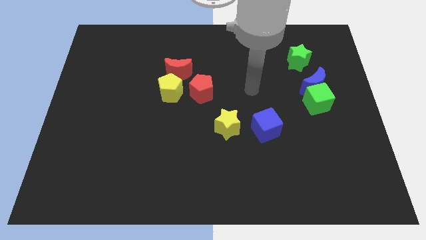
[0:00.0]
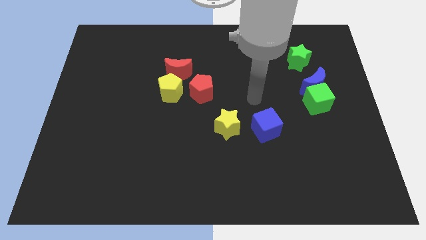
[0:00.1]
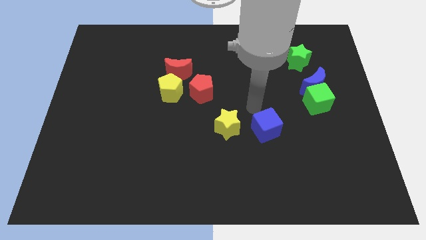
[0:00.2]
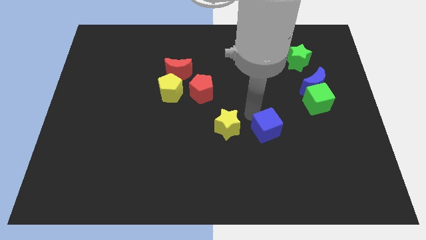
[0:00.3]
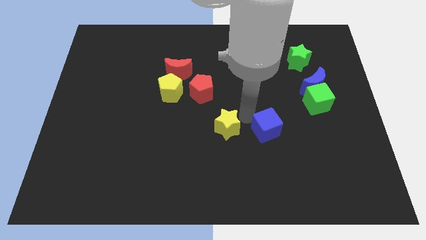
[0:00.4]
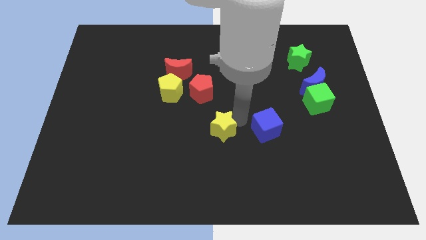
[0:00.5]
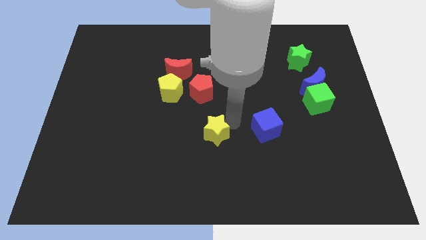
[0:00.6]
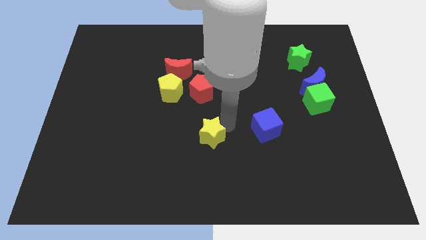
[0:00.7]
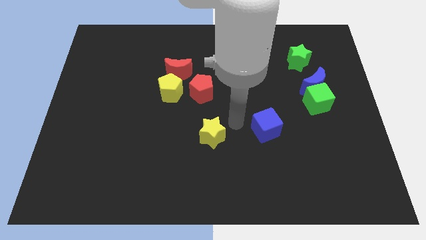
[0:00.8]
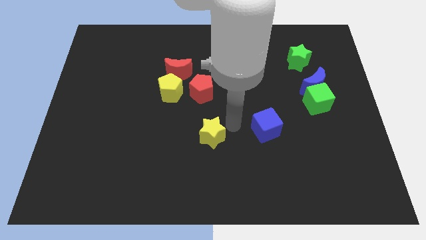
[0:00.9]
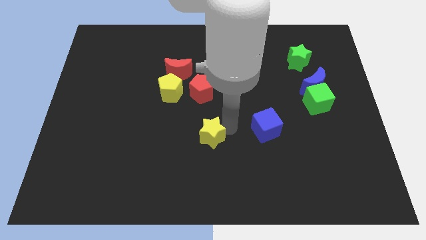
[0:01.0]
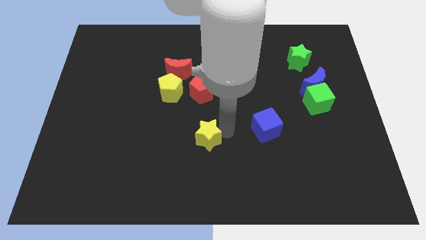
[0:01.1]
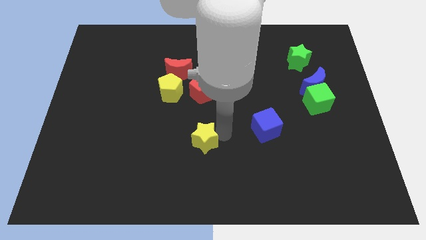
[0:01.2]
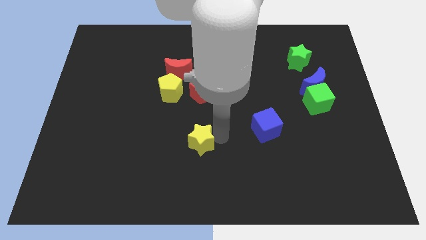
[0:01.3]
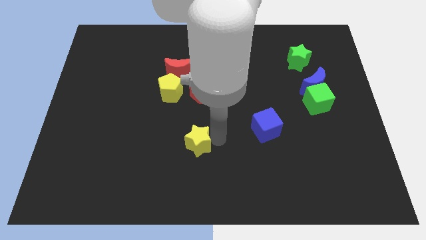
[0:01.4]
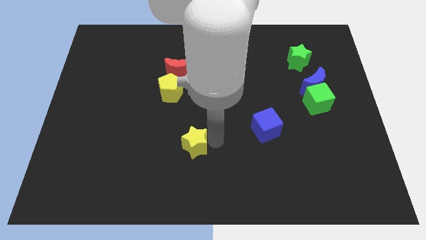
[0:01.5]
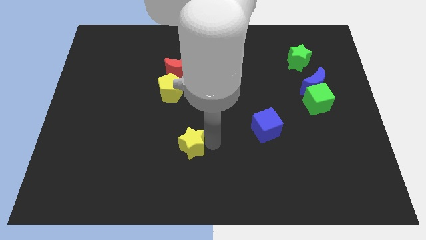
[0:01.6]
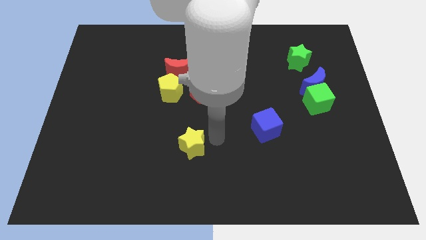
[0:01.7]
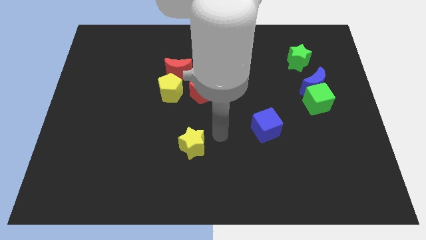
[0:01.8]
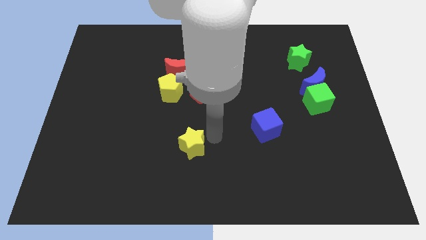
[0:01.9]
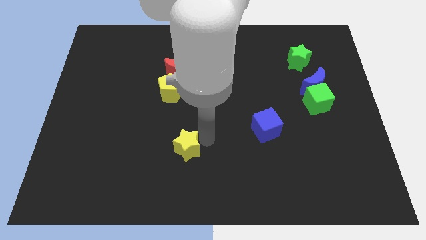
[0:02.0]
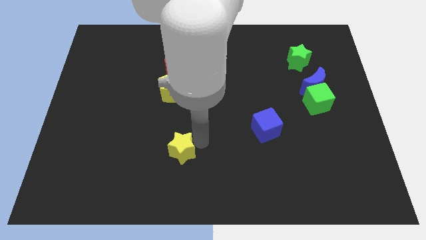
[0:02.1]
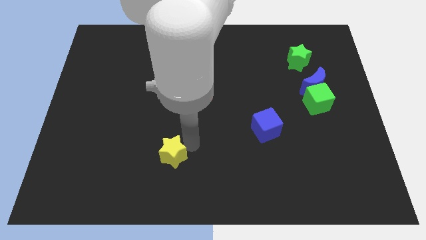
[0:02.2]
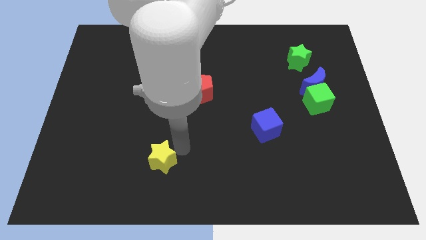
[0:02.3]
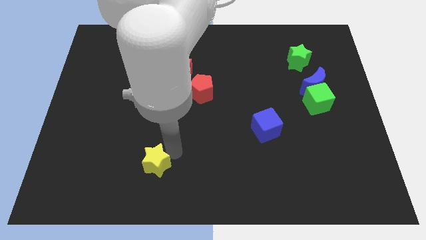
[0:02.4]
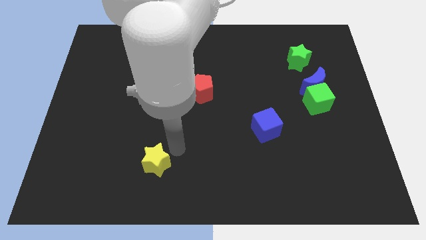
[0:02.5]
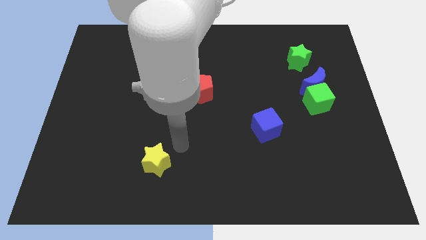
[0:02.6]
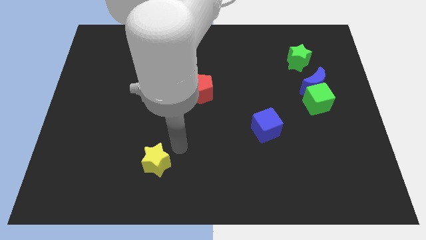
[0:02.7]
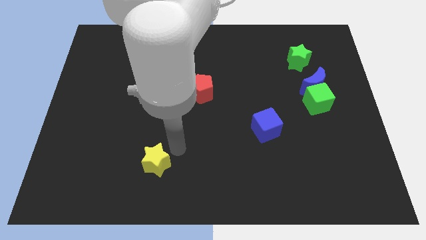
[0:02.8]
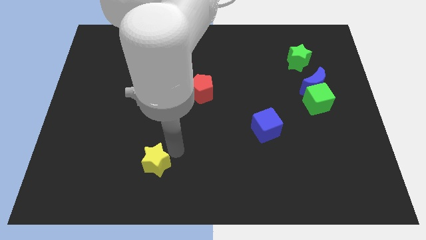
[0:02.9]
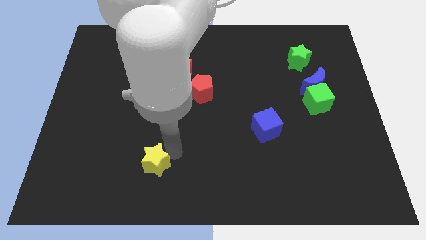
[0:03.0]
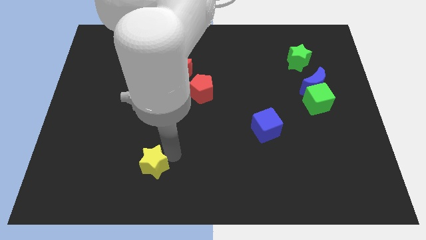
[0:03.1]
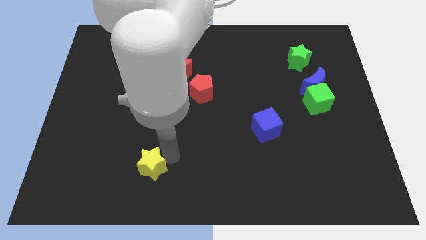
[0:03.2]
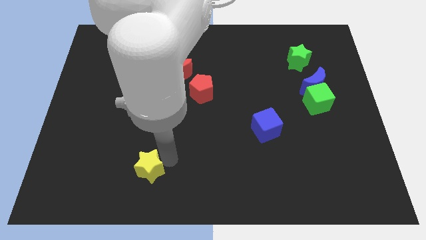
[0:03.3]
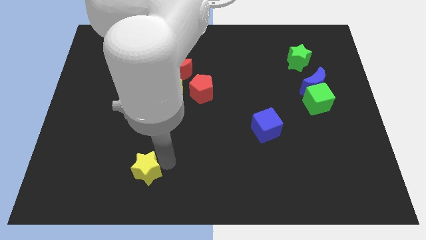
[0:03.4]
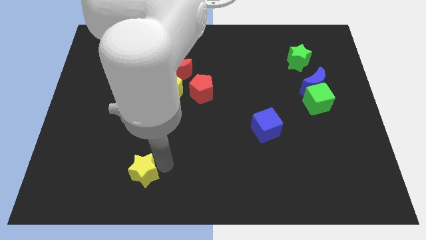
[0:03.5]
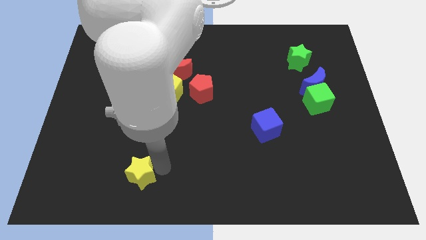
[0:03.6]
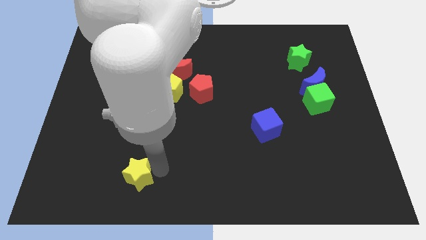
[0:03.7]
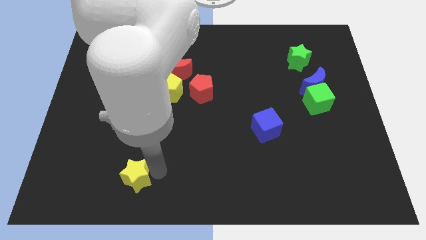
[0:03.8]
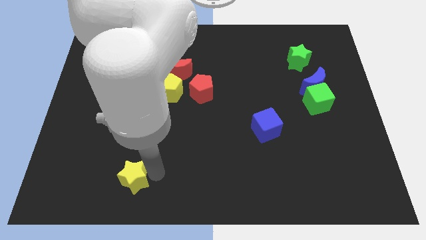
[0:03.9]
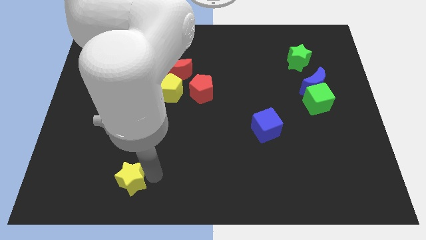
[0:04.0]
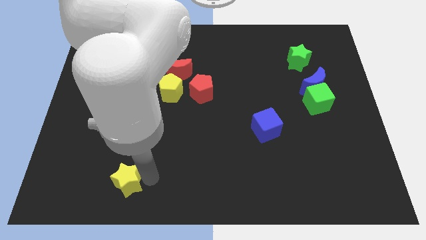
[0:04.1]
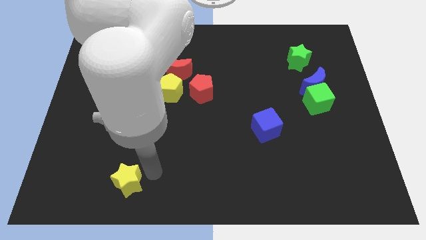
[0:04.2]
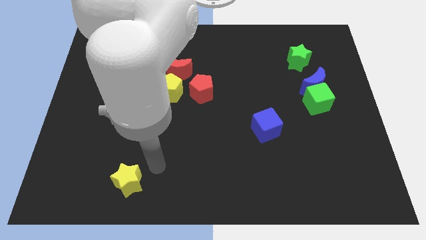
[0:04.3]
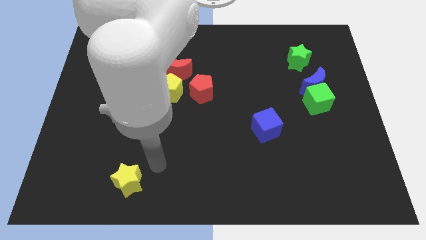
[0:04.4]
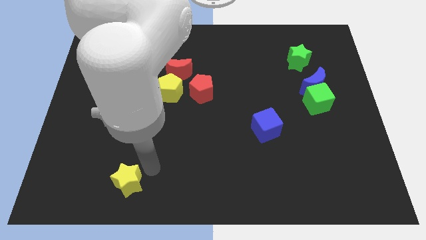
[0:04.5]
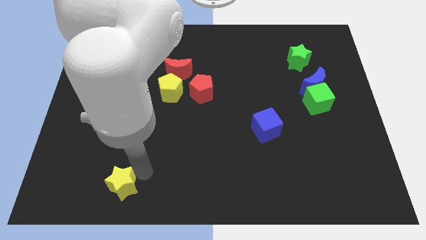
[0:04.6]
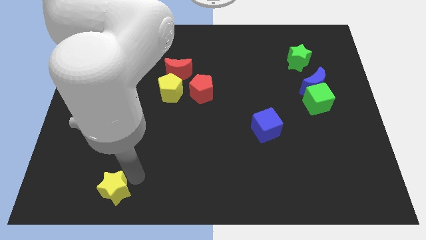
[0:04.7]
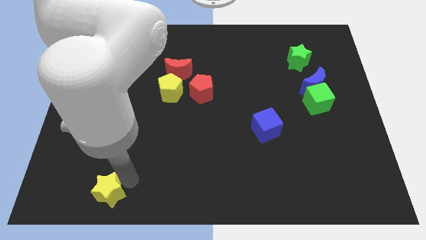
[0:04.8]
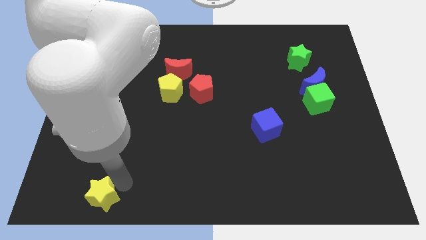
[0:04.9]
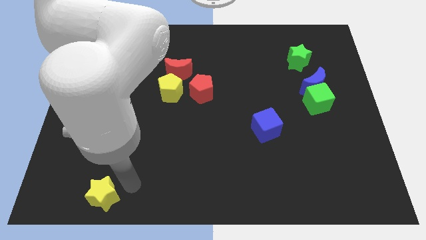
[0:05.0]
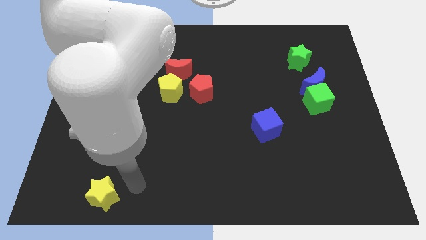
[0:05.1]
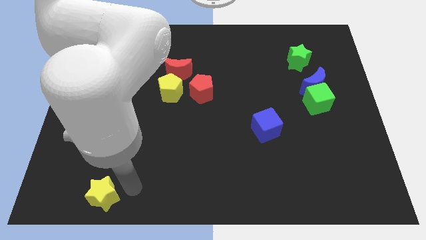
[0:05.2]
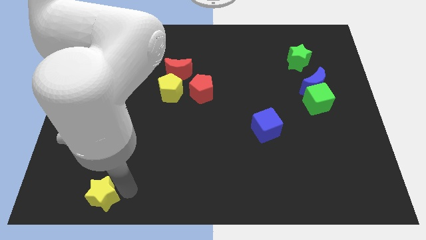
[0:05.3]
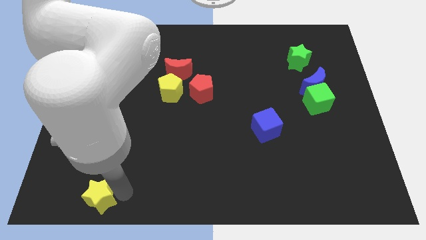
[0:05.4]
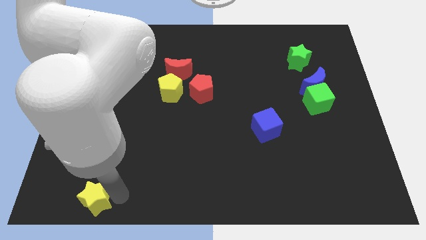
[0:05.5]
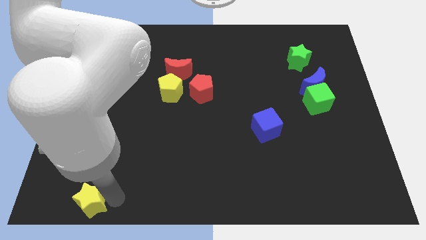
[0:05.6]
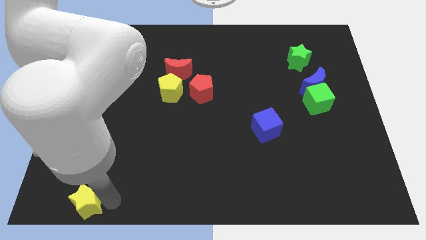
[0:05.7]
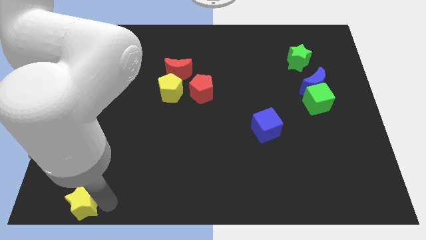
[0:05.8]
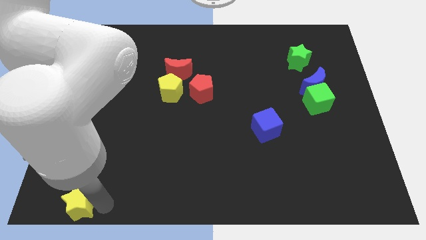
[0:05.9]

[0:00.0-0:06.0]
push the yellow star to the bottom left

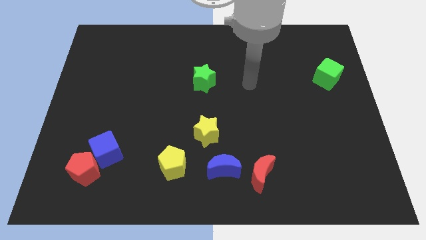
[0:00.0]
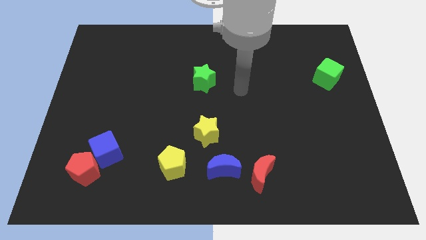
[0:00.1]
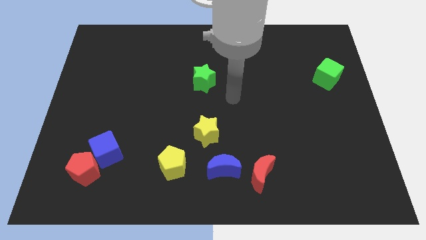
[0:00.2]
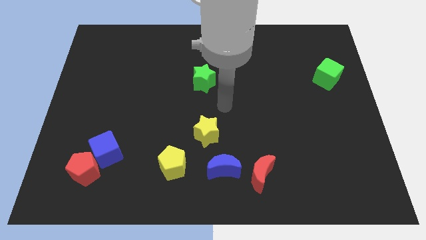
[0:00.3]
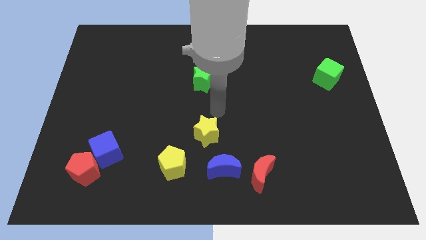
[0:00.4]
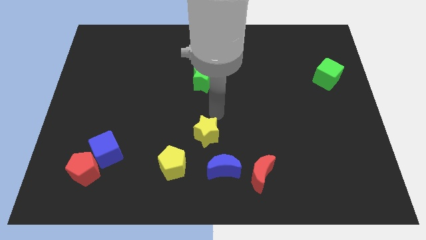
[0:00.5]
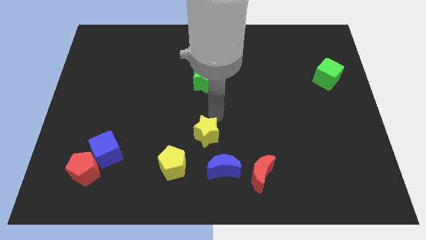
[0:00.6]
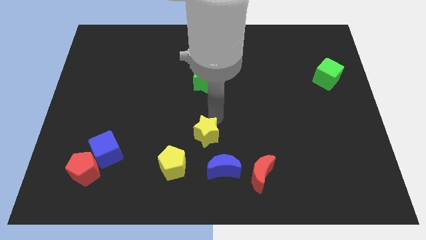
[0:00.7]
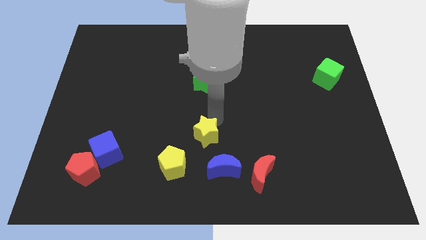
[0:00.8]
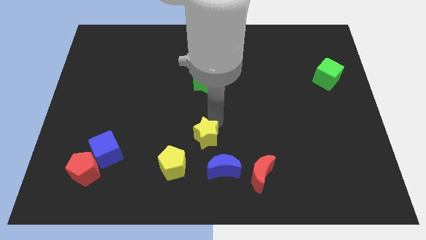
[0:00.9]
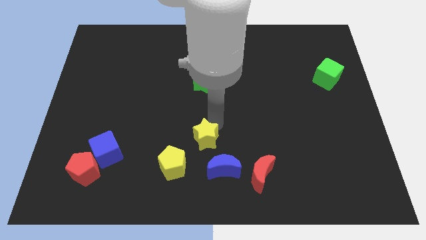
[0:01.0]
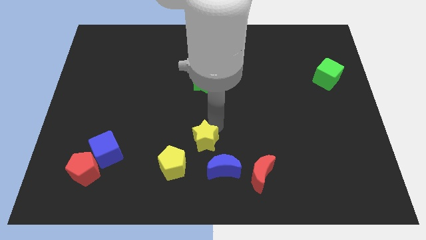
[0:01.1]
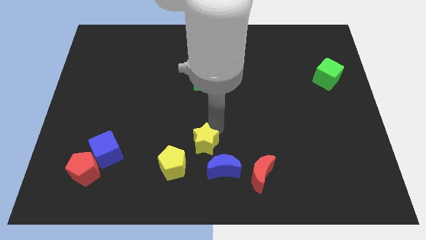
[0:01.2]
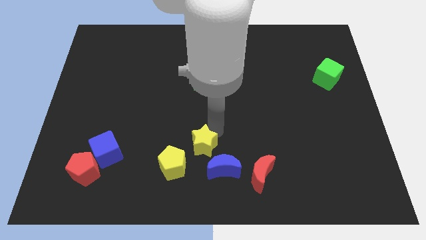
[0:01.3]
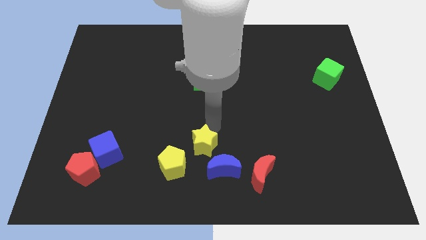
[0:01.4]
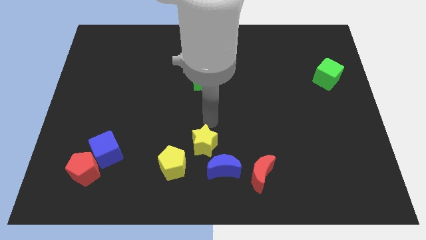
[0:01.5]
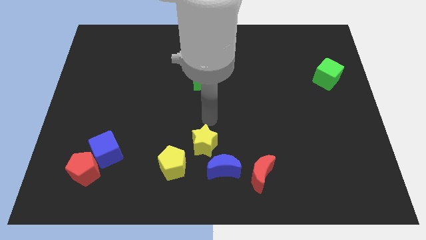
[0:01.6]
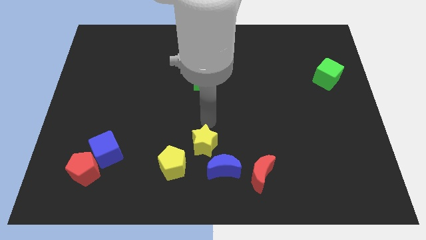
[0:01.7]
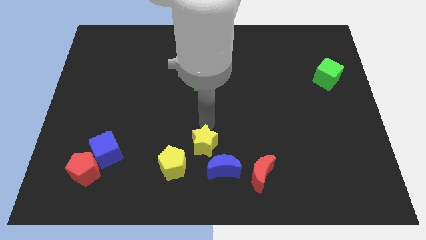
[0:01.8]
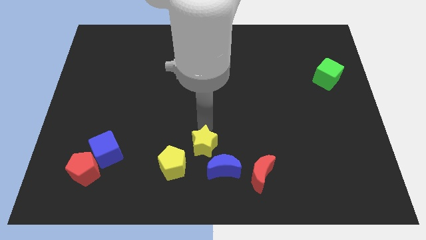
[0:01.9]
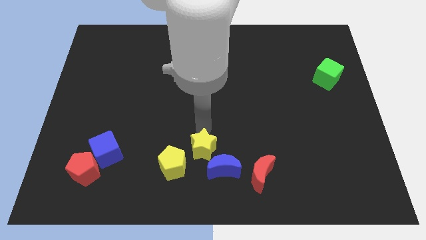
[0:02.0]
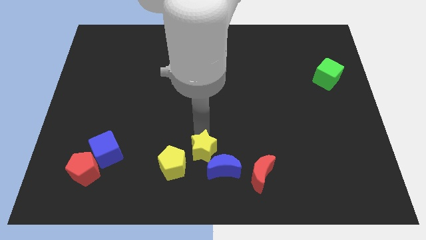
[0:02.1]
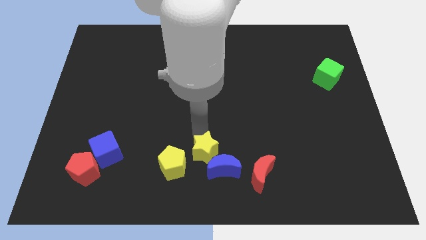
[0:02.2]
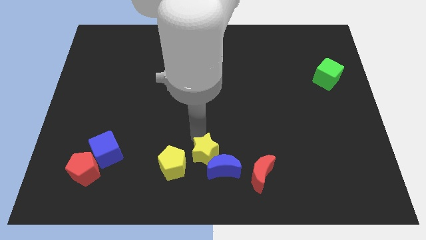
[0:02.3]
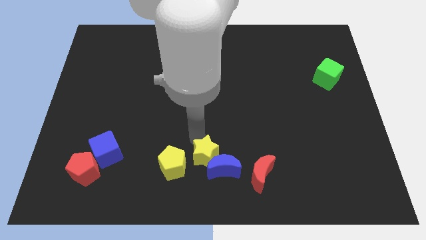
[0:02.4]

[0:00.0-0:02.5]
move the yellow star to the bottom side
